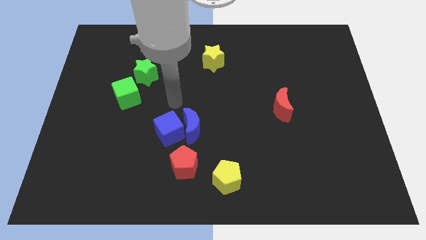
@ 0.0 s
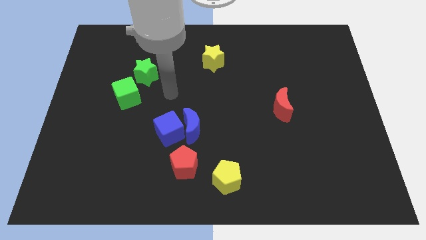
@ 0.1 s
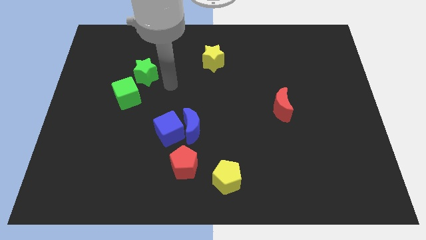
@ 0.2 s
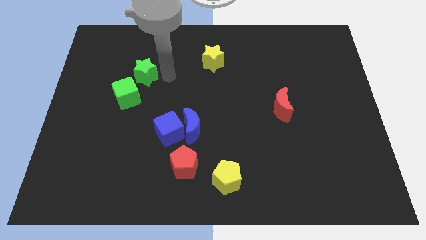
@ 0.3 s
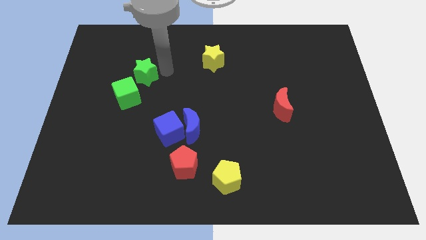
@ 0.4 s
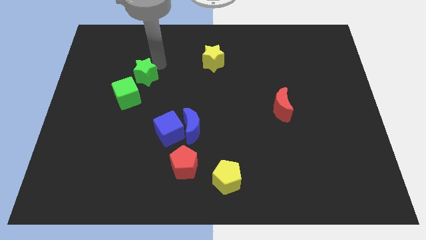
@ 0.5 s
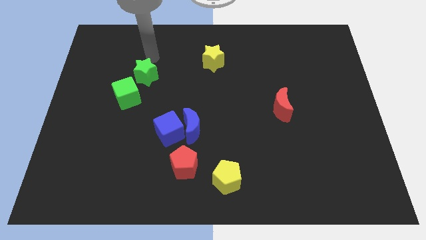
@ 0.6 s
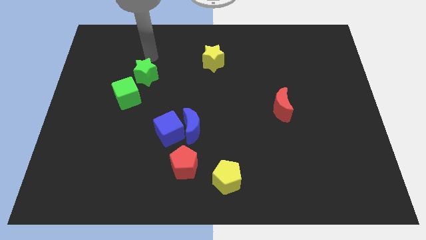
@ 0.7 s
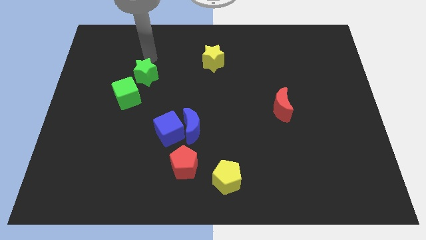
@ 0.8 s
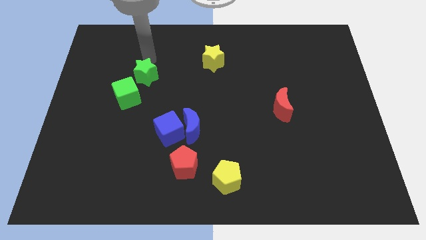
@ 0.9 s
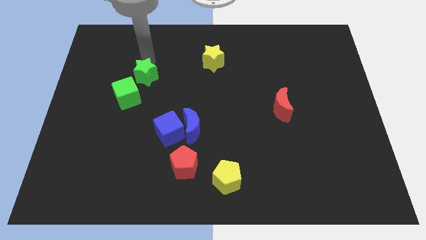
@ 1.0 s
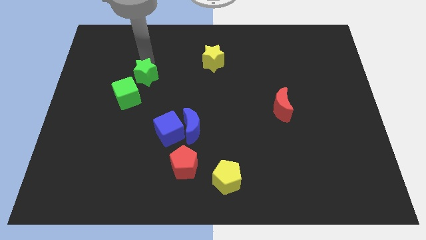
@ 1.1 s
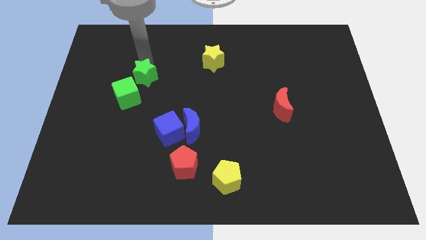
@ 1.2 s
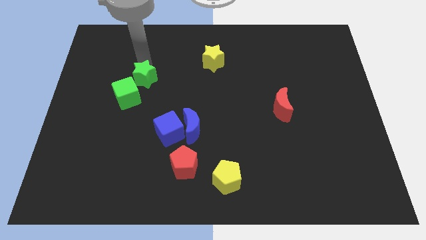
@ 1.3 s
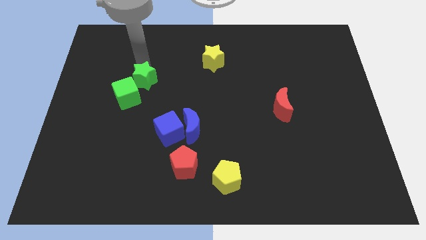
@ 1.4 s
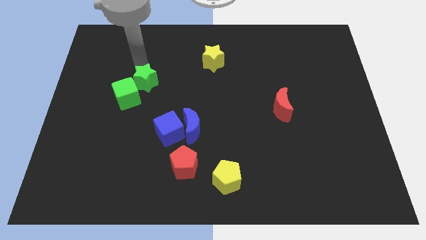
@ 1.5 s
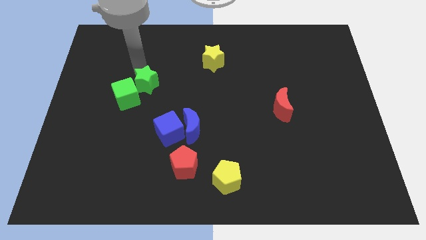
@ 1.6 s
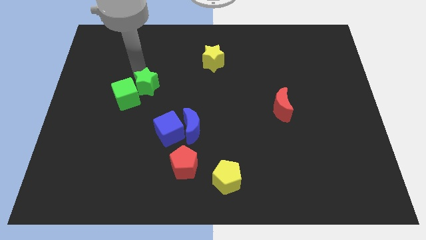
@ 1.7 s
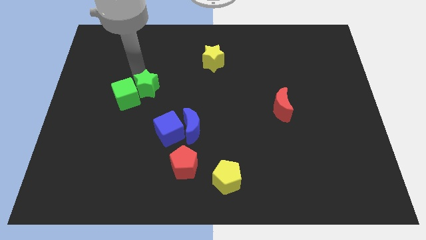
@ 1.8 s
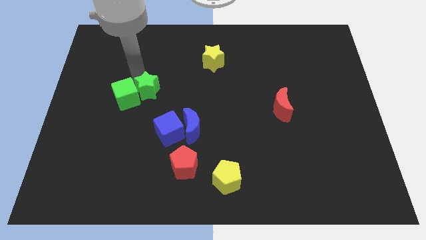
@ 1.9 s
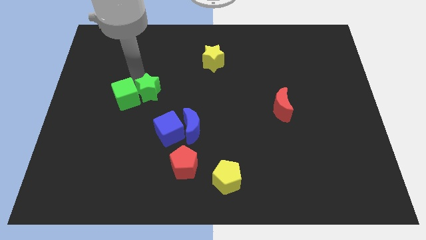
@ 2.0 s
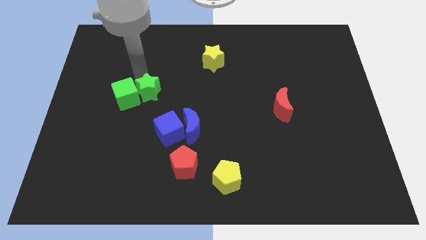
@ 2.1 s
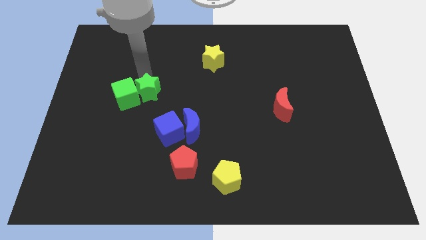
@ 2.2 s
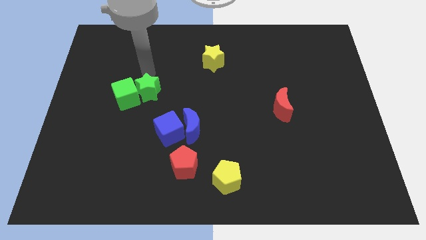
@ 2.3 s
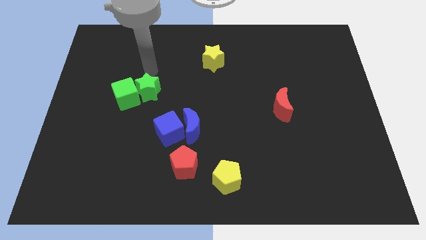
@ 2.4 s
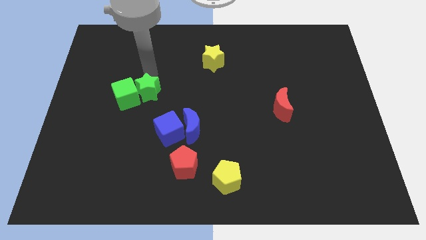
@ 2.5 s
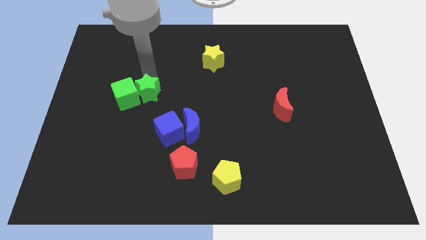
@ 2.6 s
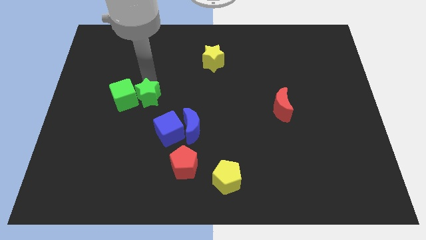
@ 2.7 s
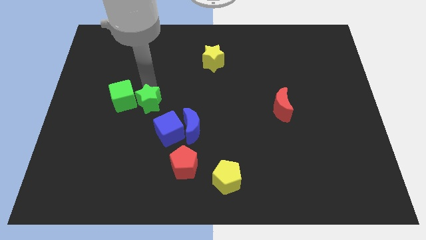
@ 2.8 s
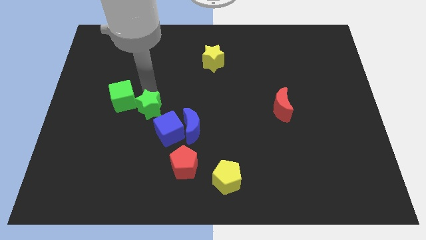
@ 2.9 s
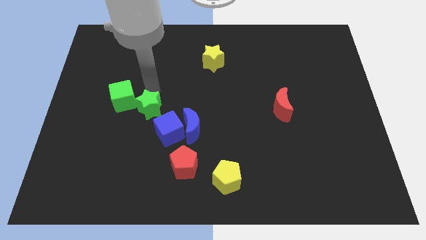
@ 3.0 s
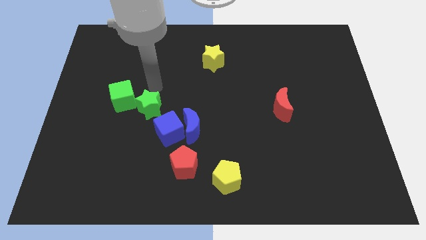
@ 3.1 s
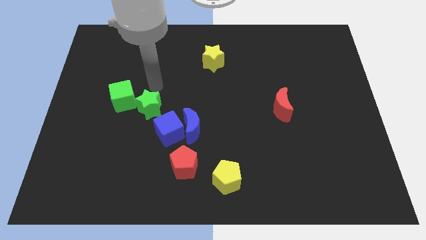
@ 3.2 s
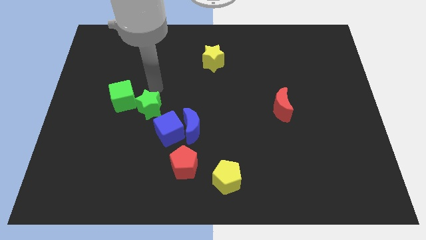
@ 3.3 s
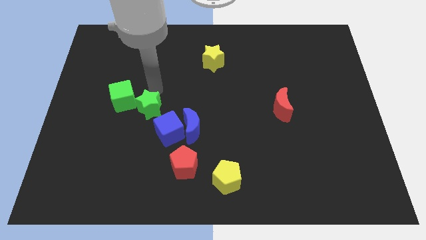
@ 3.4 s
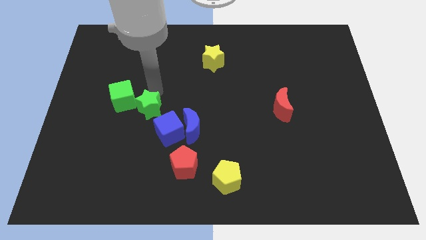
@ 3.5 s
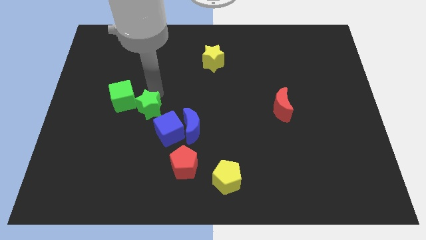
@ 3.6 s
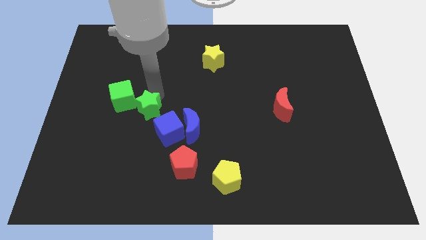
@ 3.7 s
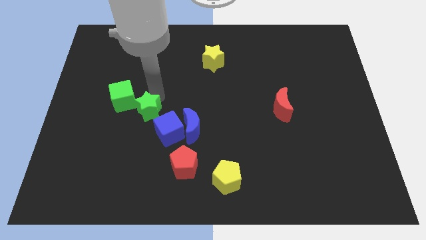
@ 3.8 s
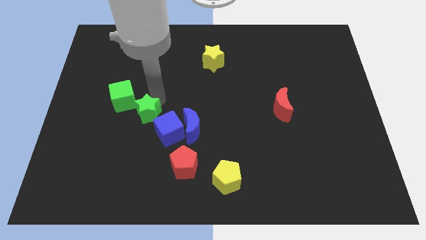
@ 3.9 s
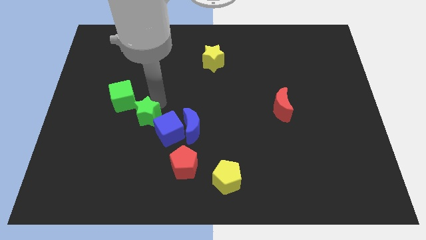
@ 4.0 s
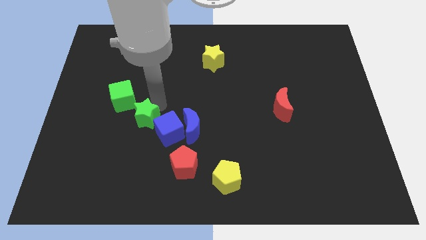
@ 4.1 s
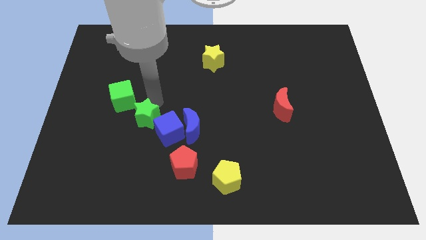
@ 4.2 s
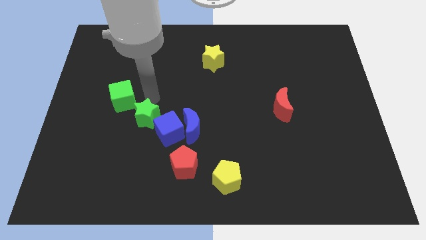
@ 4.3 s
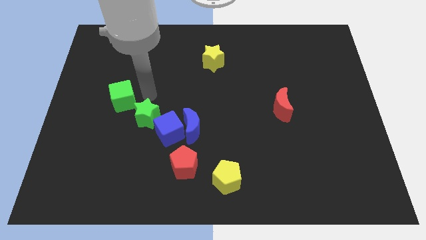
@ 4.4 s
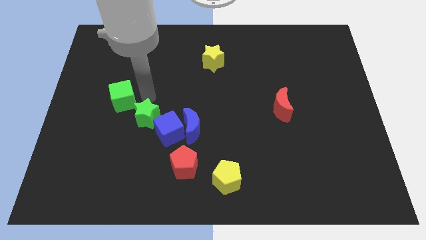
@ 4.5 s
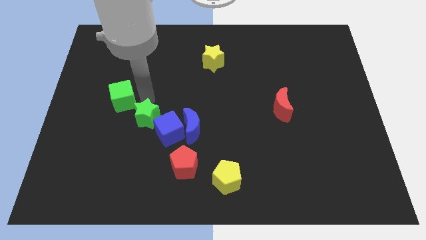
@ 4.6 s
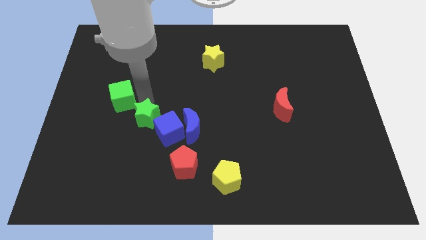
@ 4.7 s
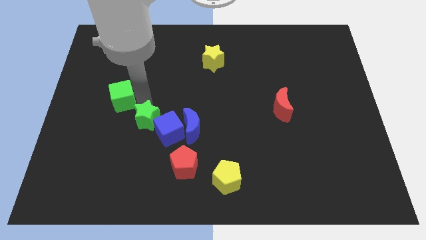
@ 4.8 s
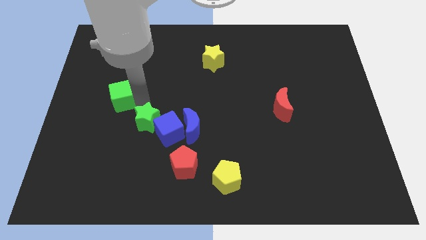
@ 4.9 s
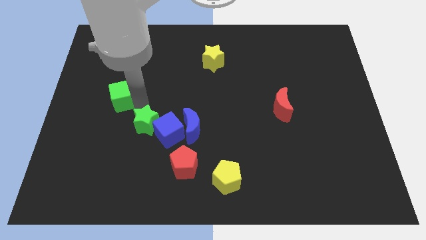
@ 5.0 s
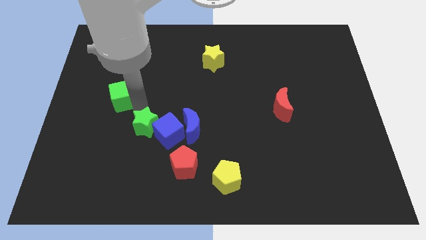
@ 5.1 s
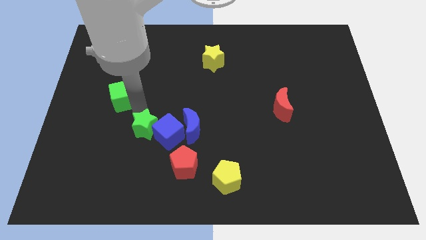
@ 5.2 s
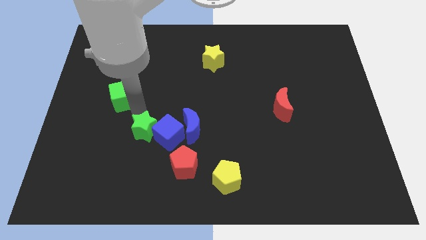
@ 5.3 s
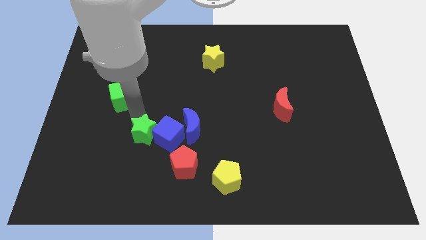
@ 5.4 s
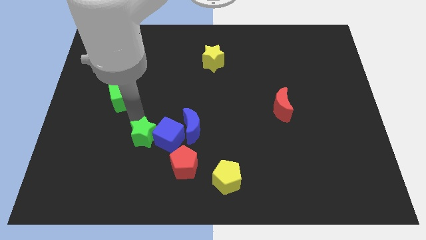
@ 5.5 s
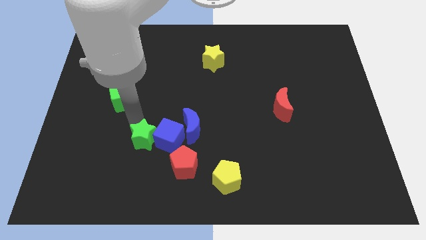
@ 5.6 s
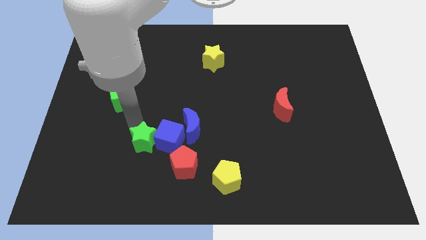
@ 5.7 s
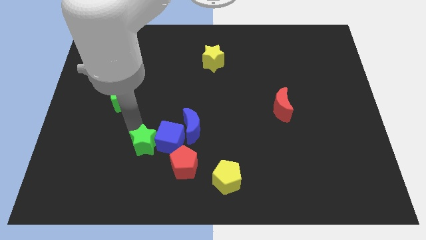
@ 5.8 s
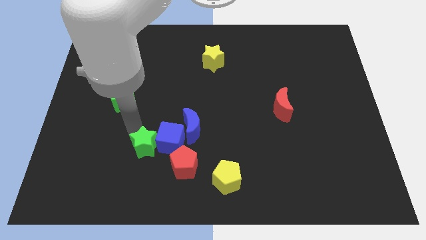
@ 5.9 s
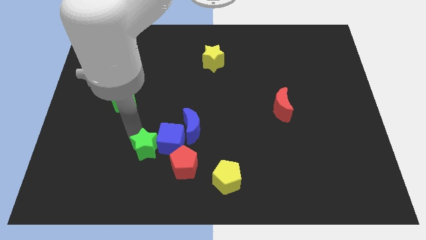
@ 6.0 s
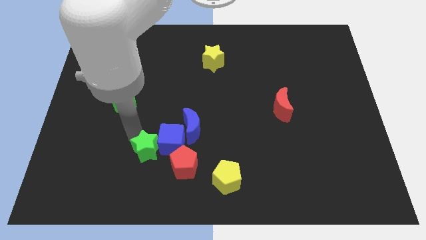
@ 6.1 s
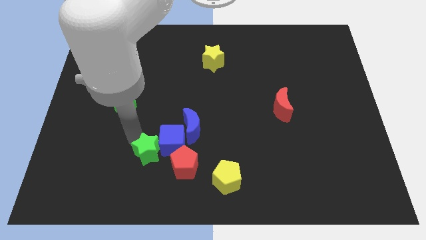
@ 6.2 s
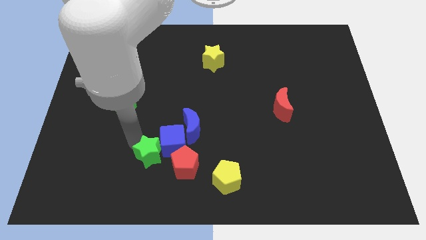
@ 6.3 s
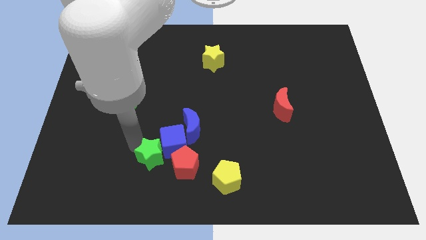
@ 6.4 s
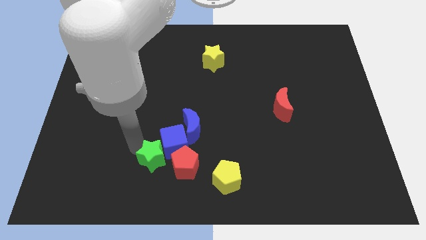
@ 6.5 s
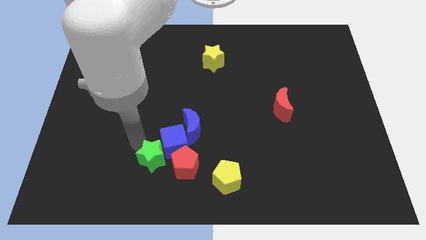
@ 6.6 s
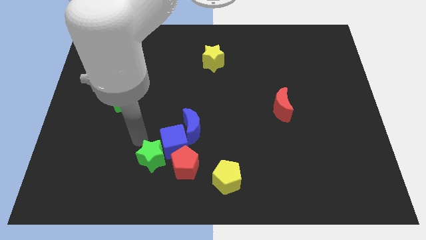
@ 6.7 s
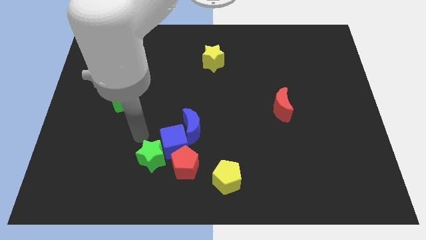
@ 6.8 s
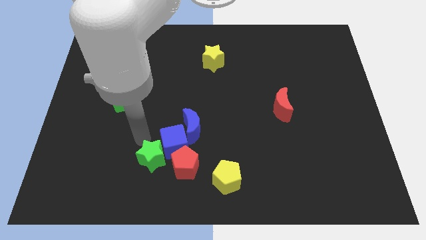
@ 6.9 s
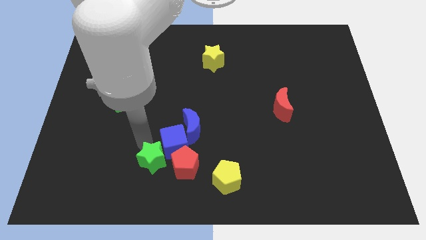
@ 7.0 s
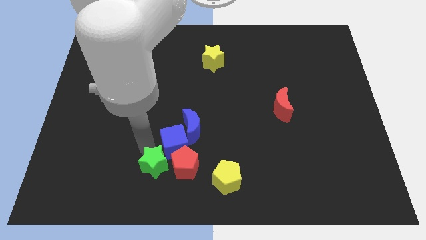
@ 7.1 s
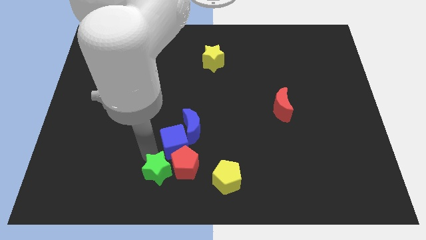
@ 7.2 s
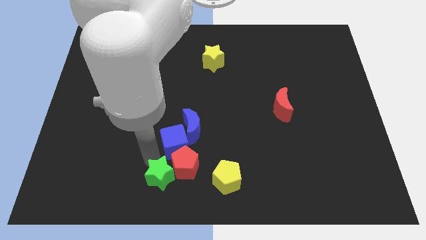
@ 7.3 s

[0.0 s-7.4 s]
push the green star to the bottom
